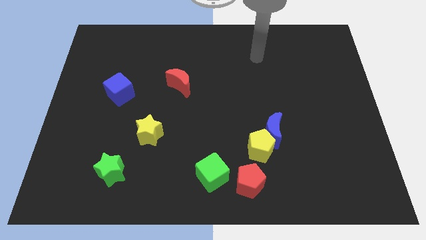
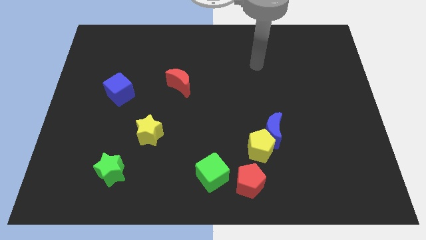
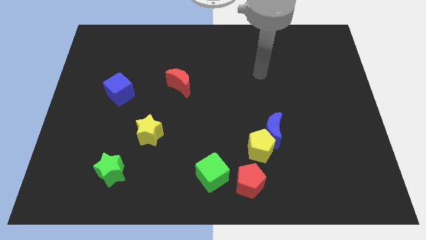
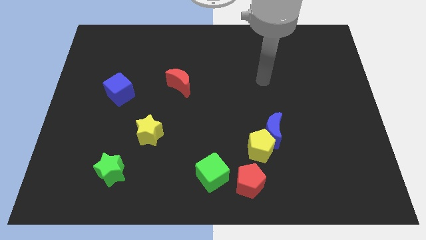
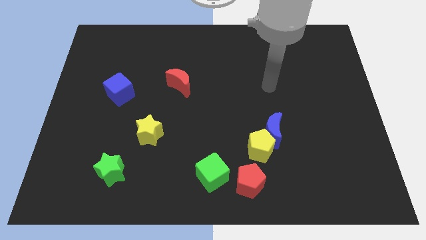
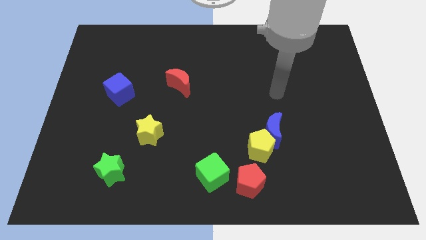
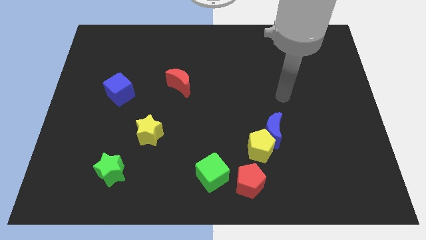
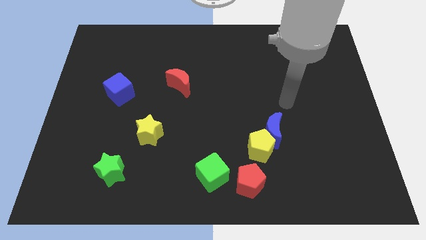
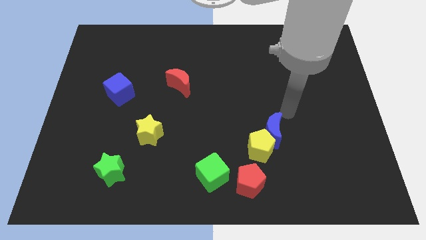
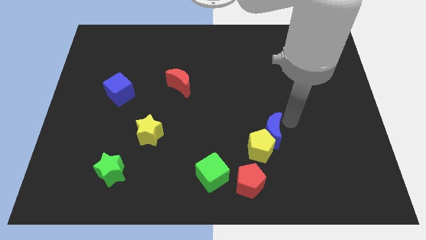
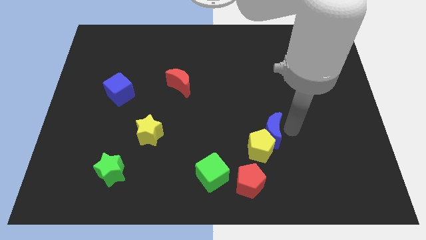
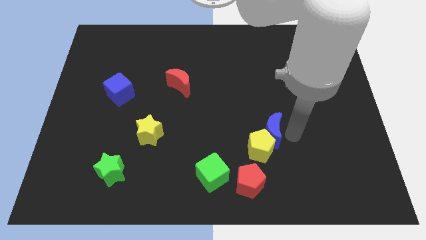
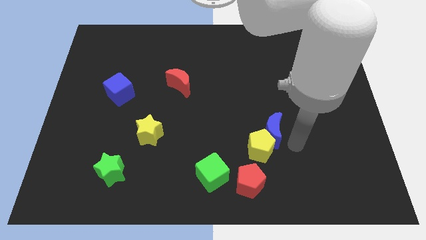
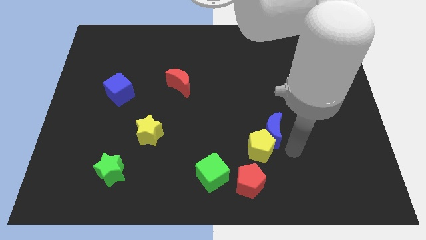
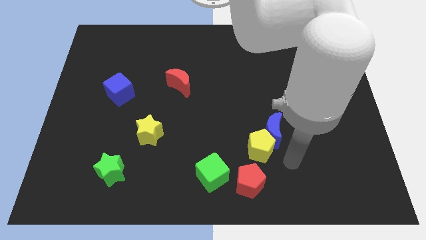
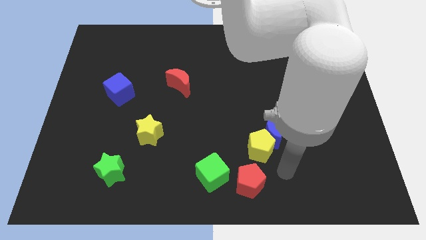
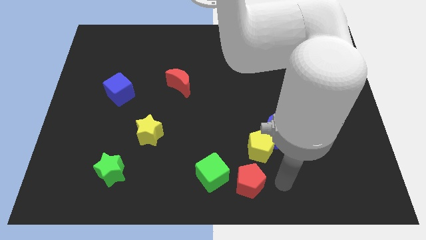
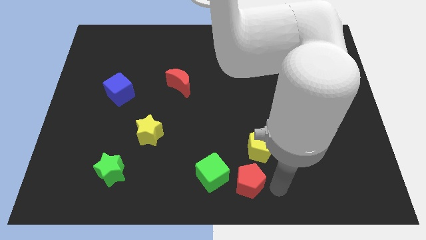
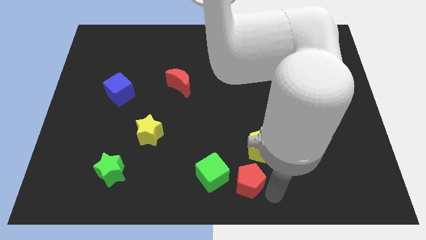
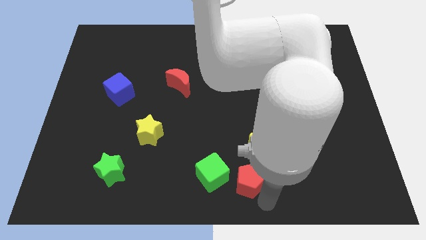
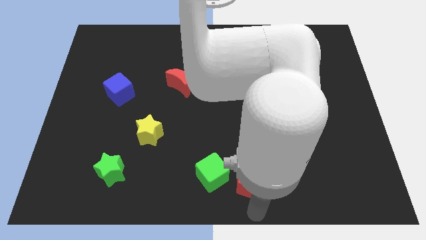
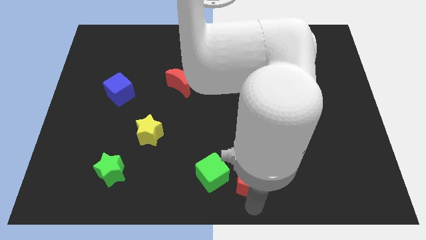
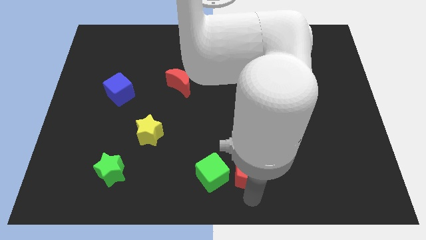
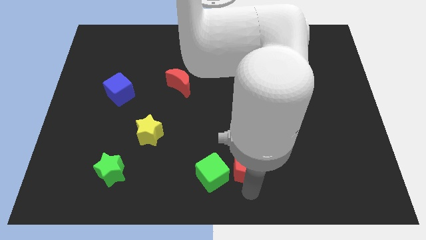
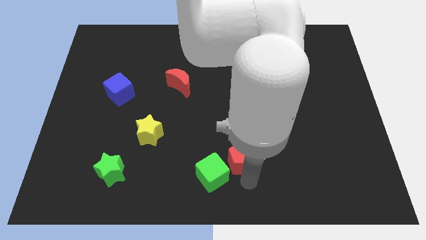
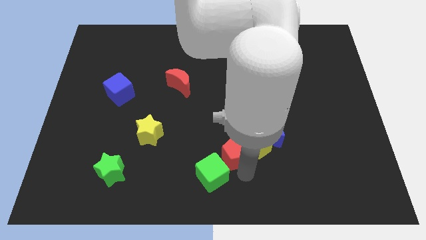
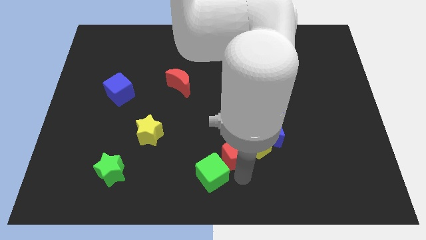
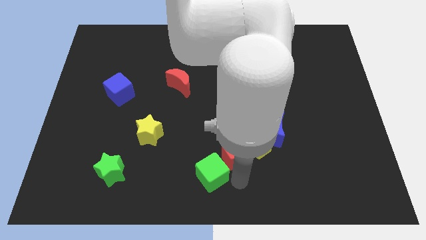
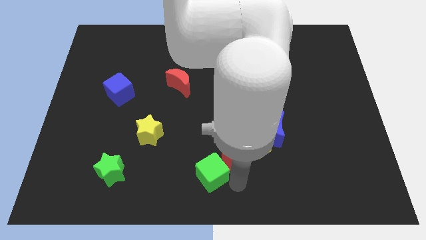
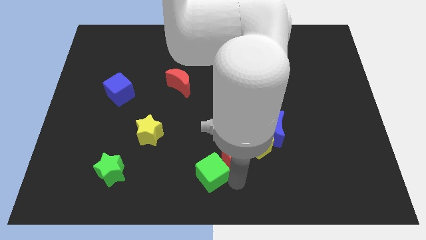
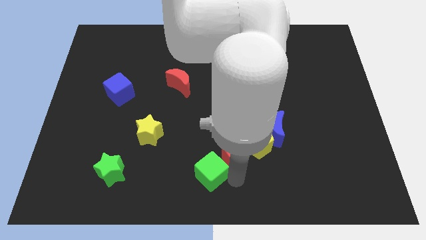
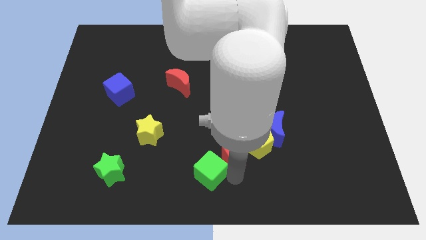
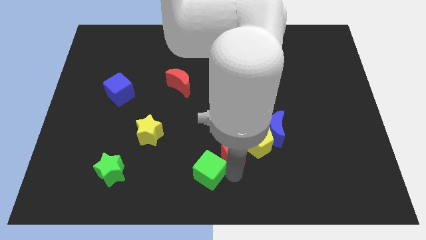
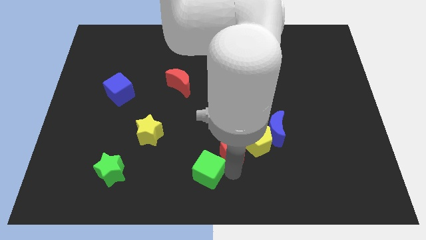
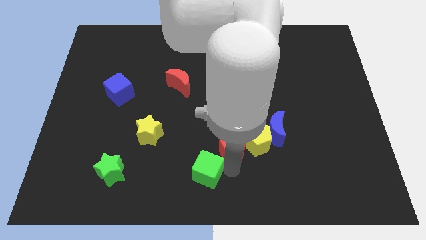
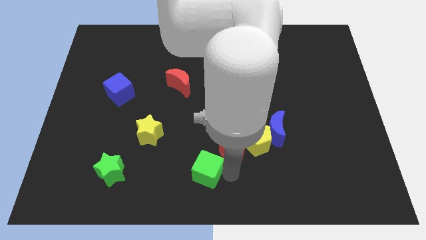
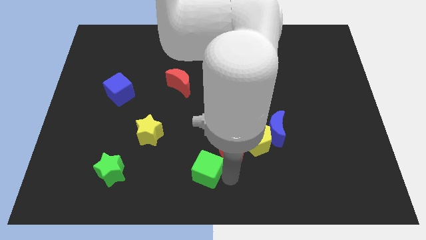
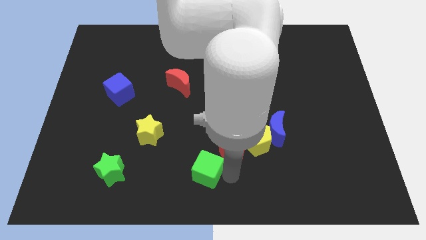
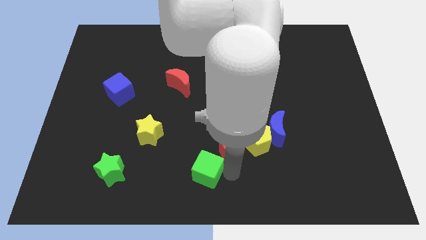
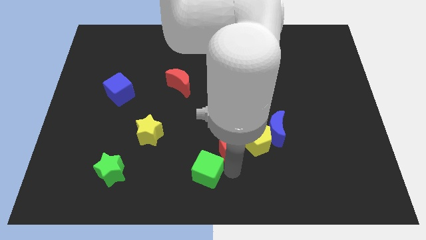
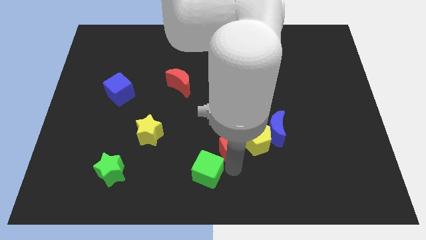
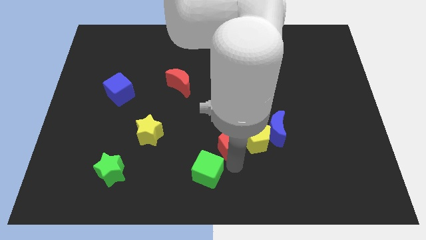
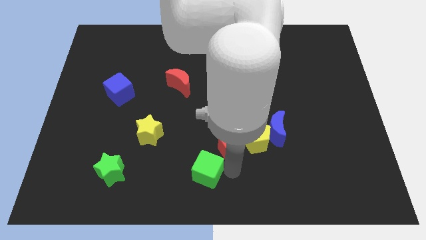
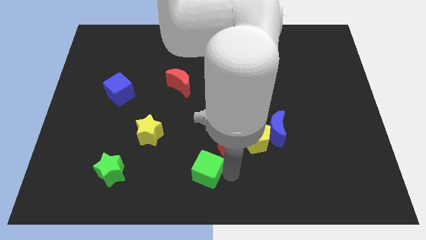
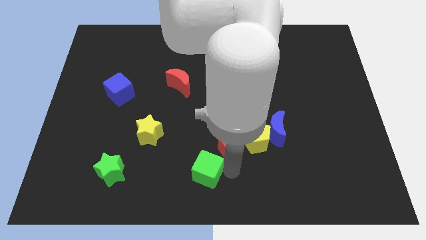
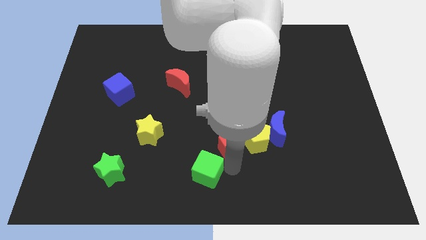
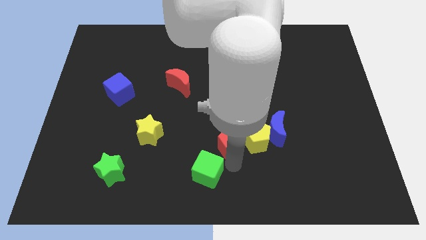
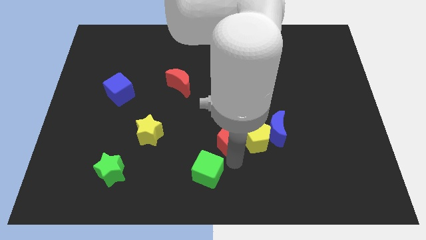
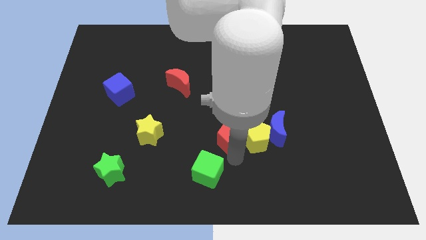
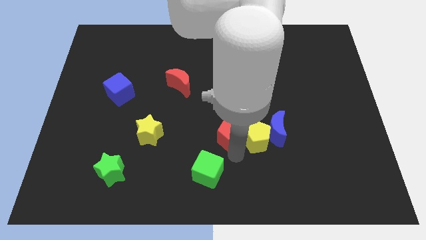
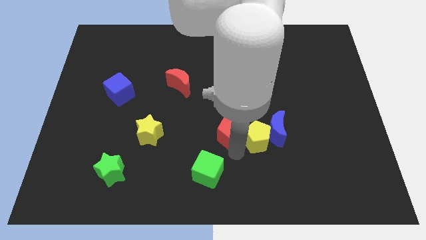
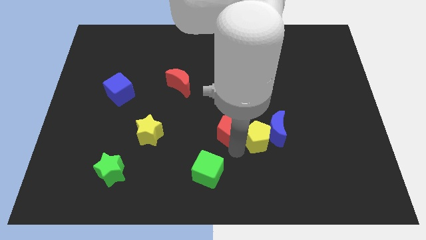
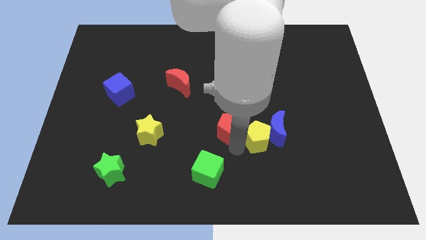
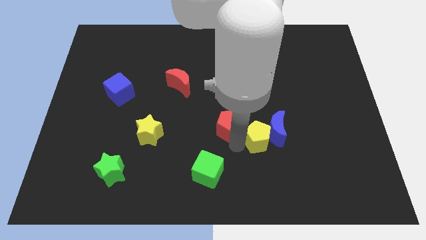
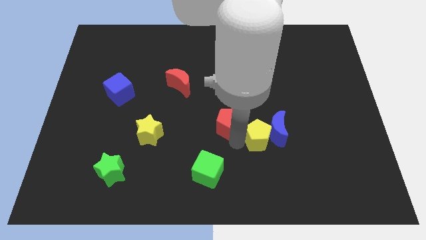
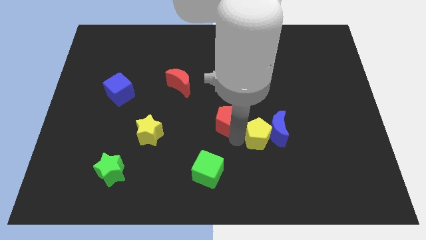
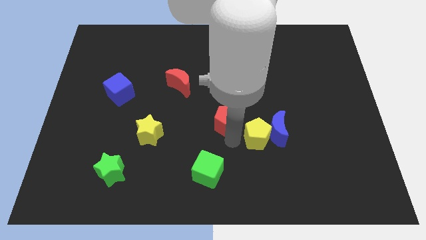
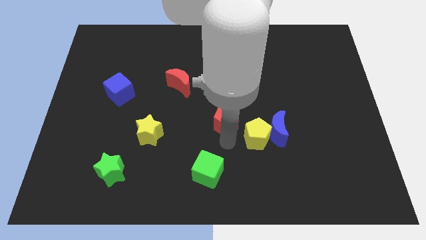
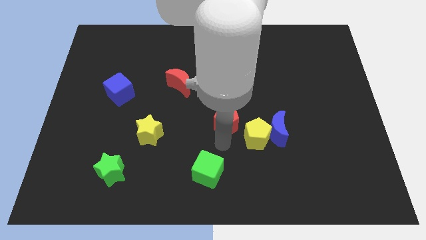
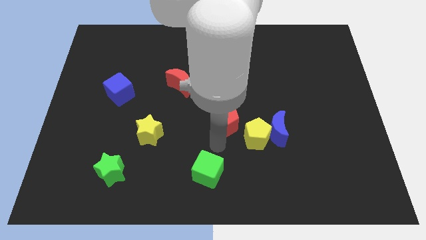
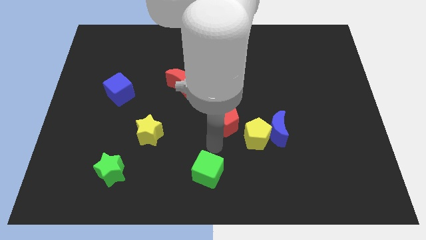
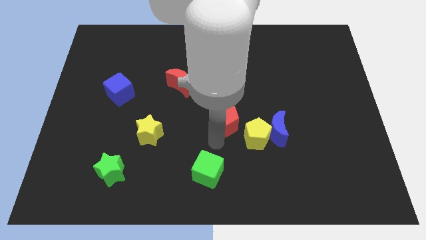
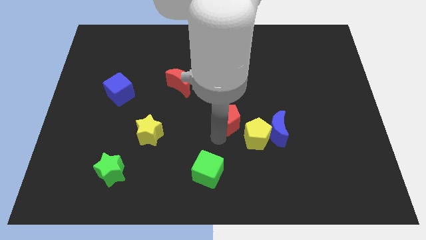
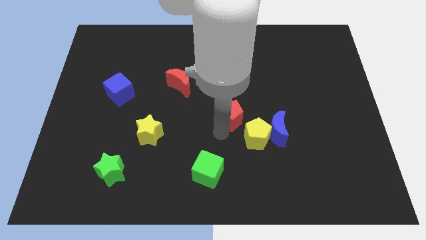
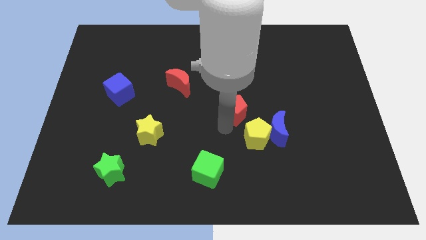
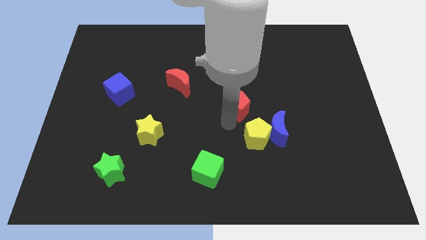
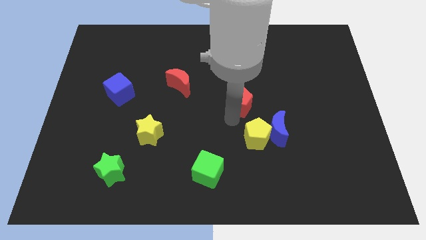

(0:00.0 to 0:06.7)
slide the red pentagon up

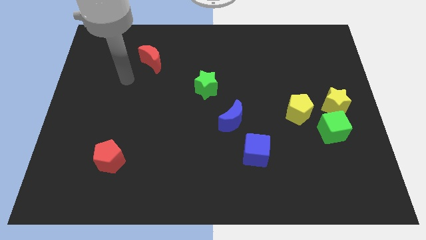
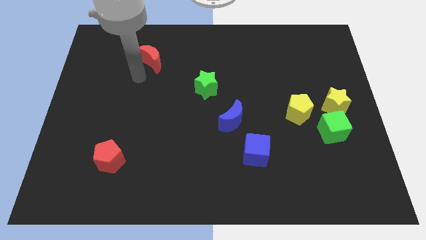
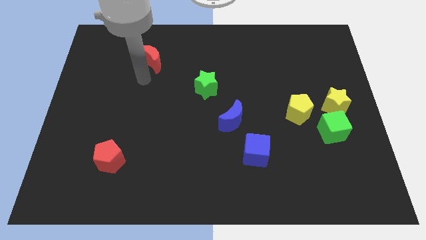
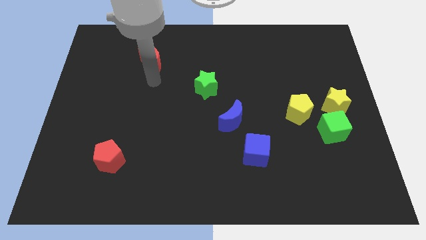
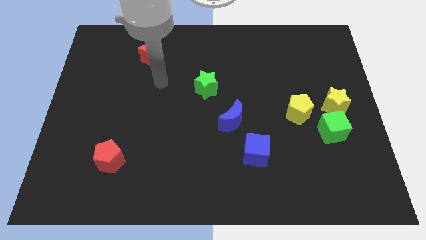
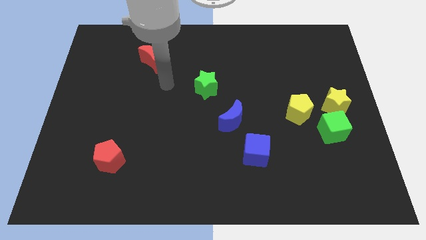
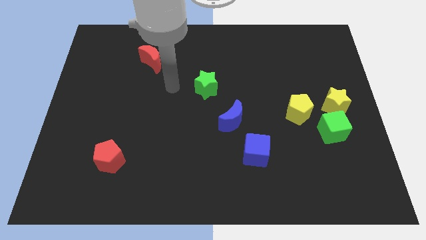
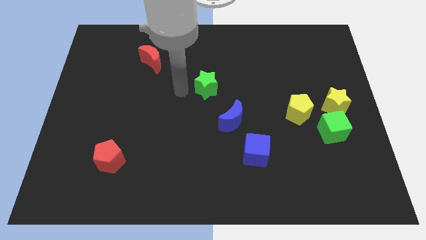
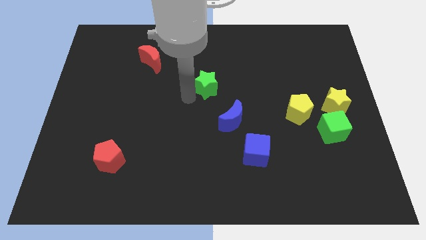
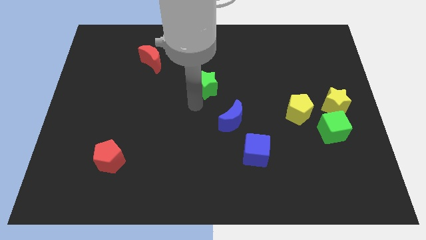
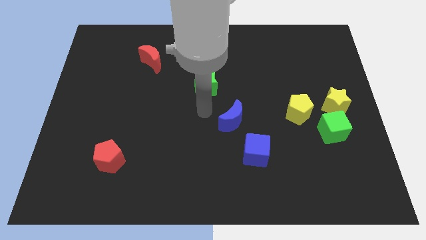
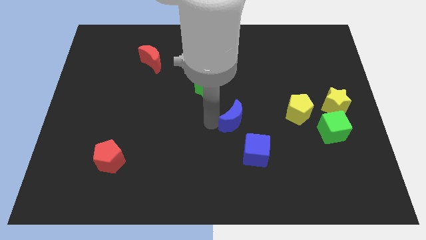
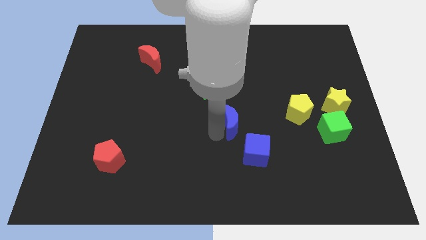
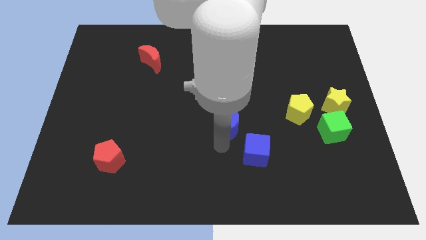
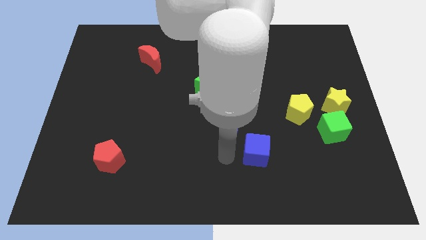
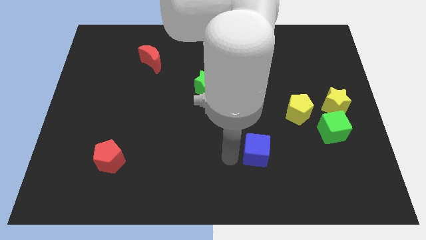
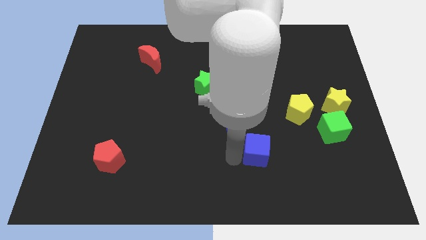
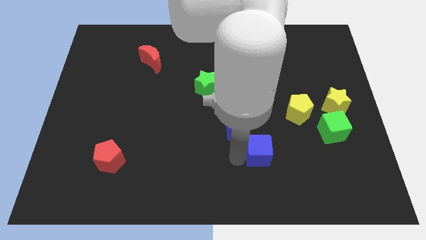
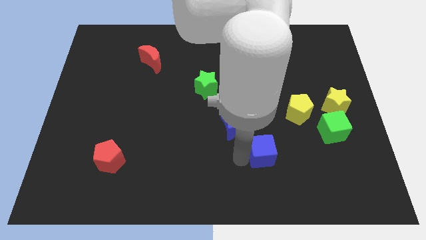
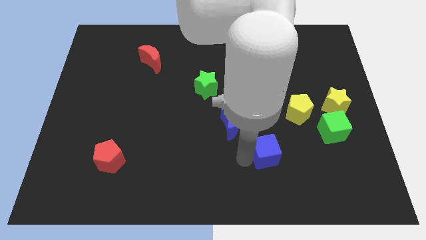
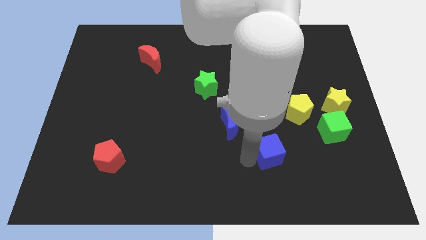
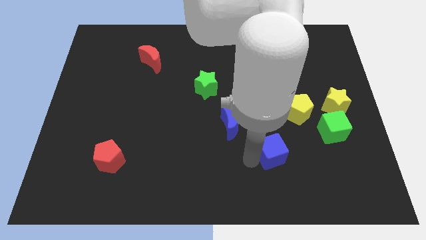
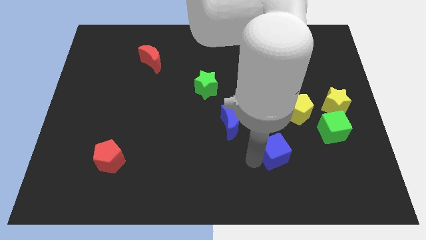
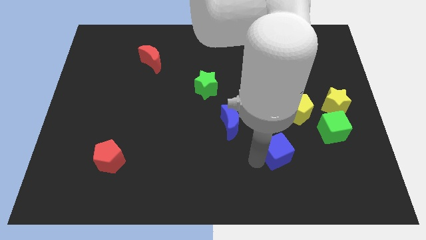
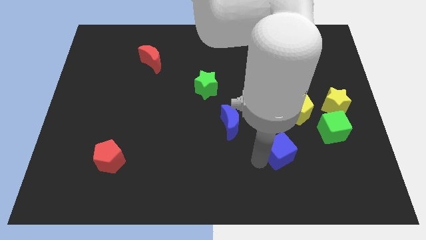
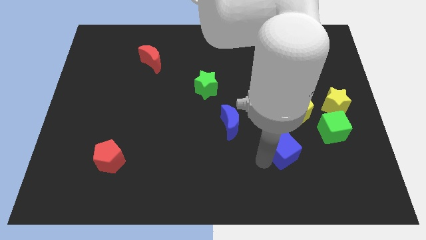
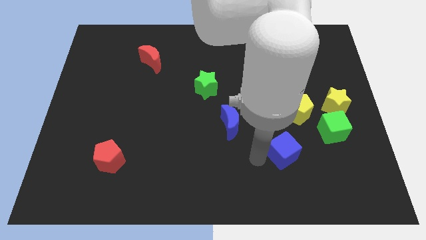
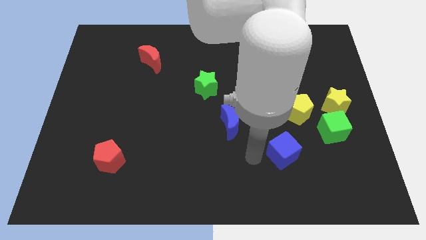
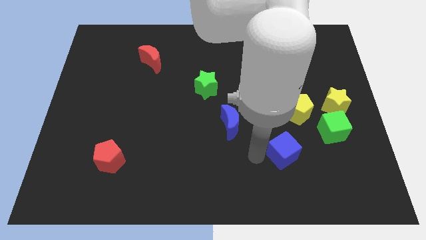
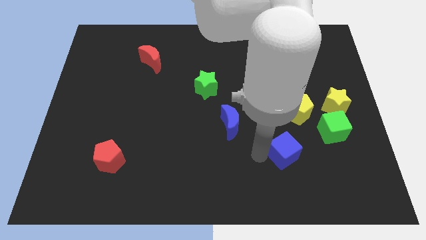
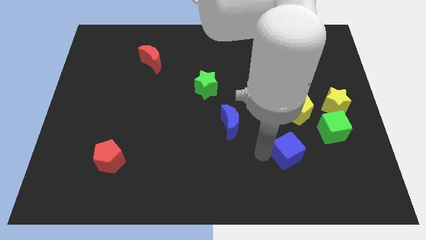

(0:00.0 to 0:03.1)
push the blue cube right slightly
